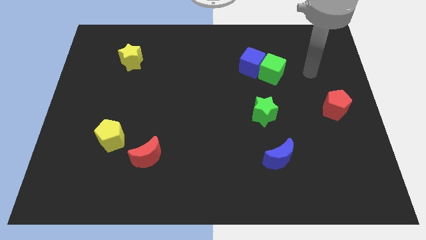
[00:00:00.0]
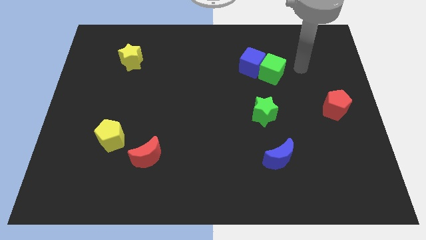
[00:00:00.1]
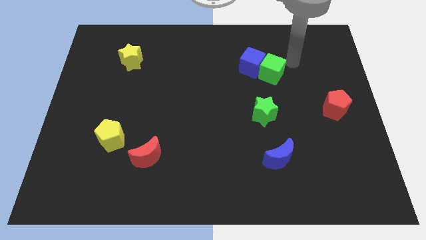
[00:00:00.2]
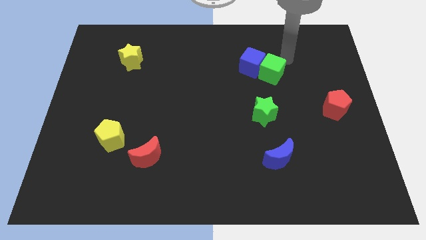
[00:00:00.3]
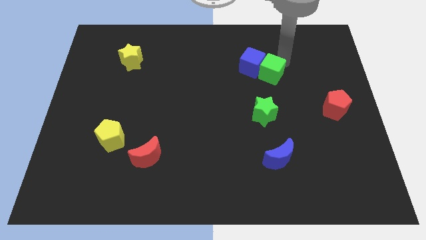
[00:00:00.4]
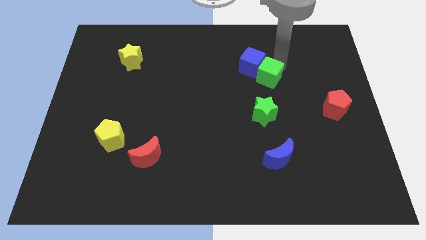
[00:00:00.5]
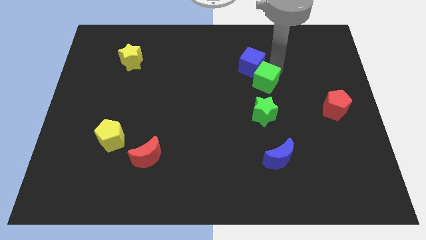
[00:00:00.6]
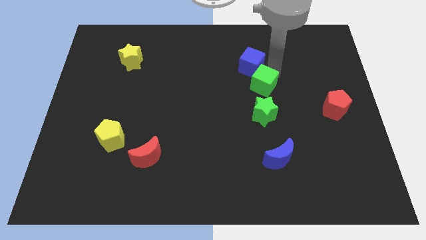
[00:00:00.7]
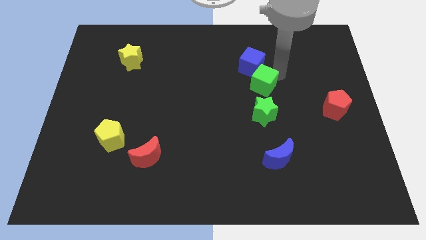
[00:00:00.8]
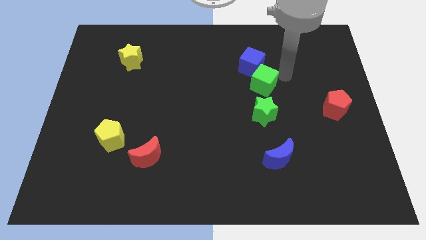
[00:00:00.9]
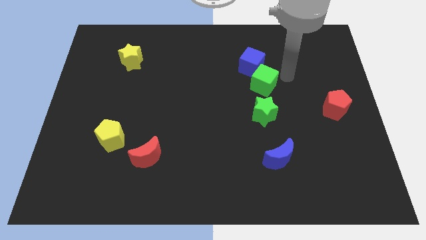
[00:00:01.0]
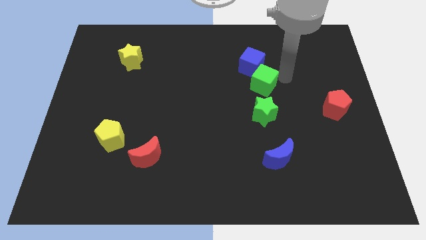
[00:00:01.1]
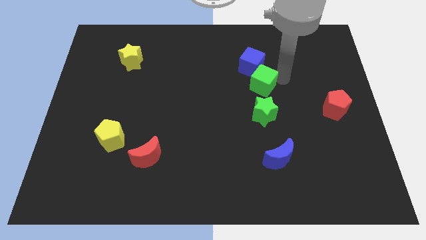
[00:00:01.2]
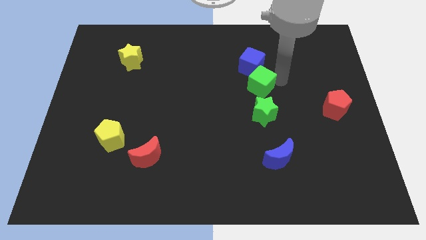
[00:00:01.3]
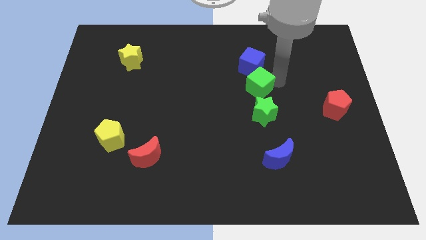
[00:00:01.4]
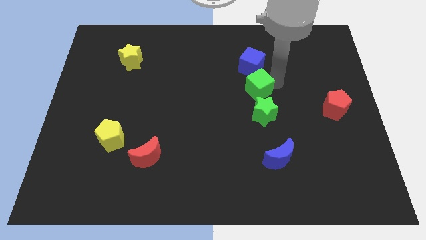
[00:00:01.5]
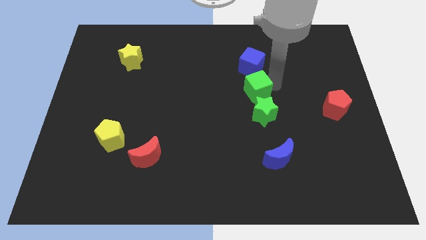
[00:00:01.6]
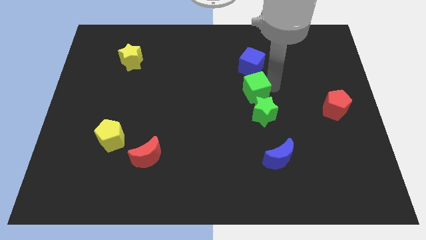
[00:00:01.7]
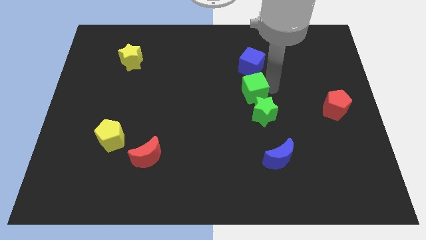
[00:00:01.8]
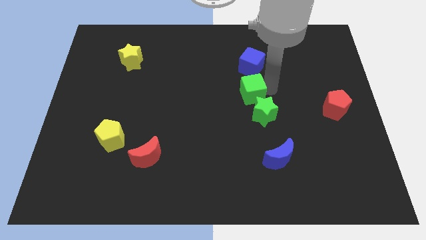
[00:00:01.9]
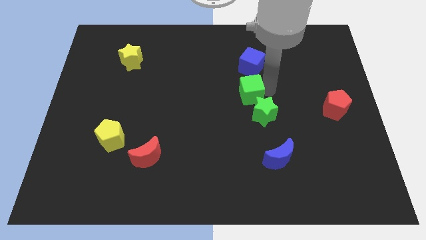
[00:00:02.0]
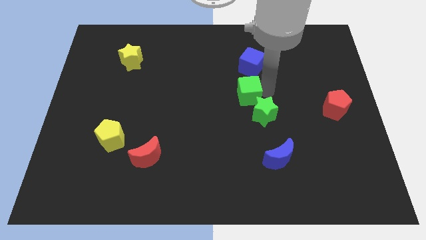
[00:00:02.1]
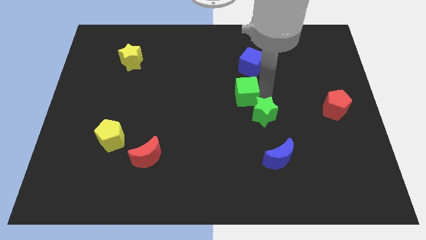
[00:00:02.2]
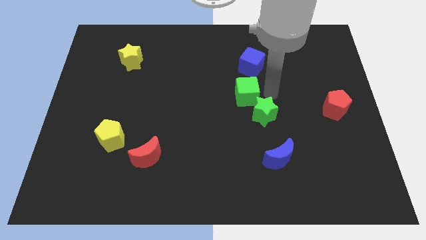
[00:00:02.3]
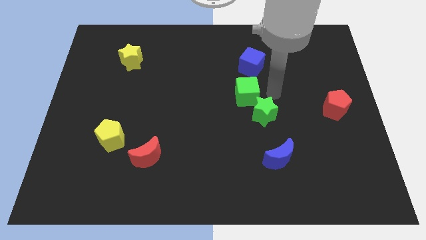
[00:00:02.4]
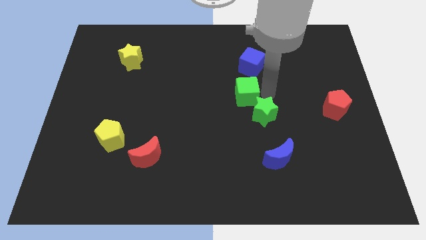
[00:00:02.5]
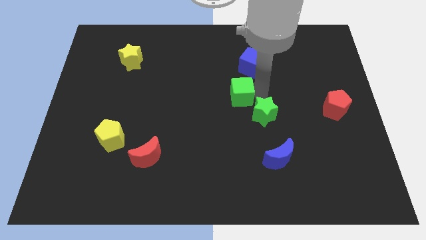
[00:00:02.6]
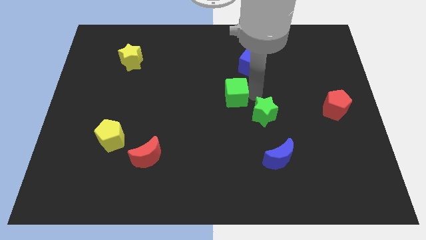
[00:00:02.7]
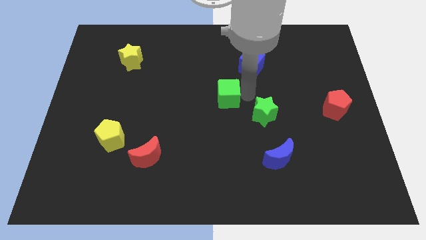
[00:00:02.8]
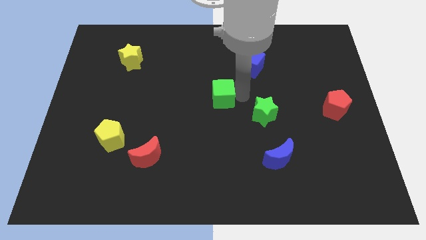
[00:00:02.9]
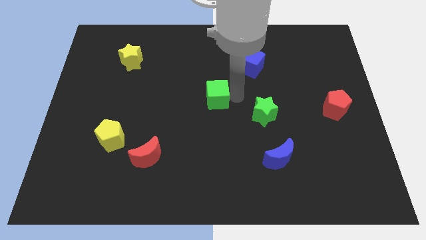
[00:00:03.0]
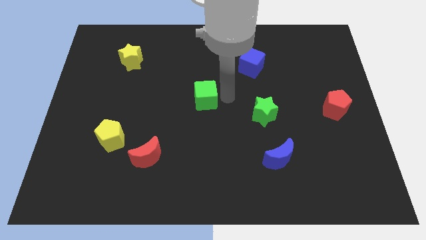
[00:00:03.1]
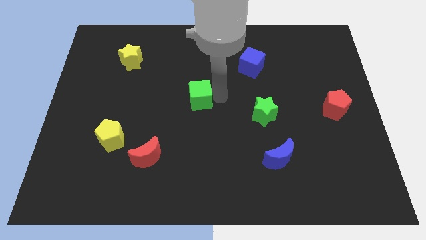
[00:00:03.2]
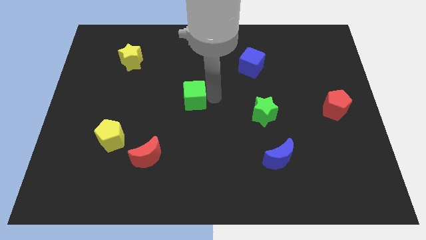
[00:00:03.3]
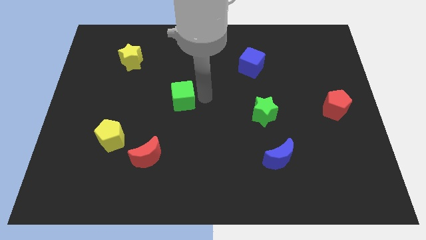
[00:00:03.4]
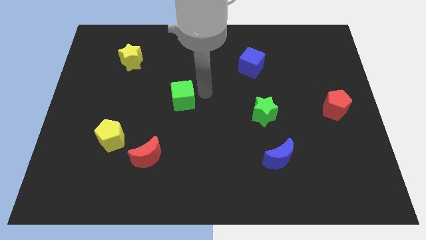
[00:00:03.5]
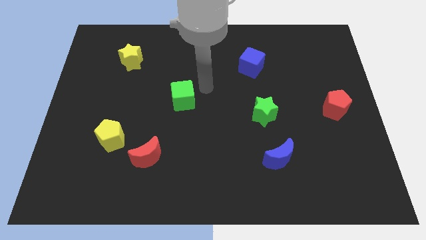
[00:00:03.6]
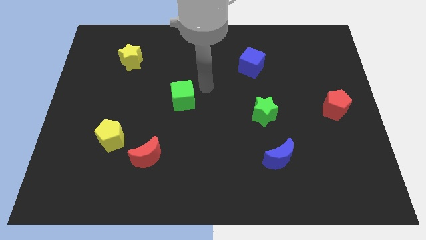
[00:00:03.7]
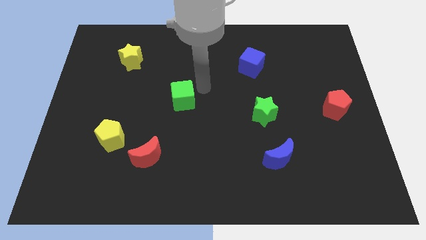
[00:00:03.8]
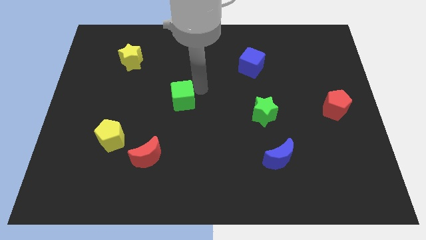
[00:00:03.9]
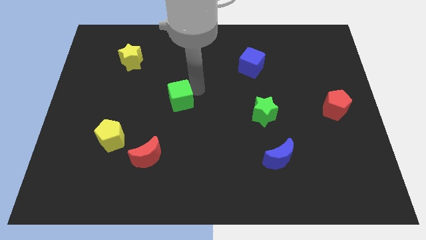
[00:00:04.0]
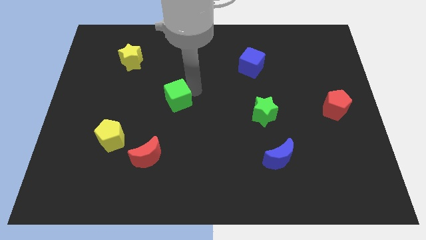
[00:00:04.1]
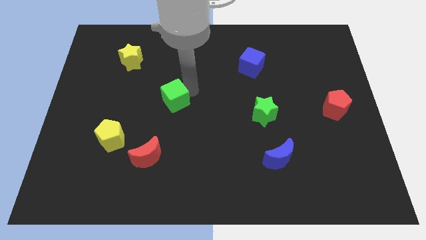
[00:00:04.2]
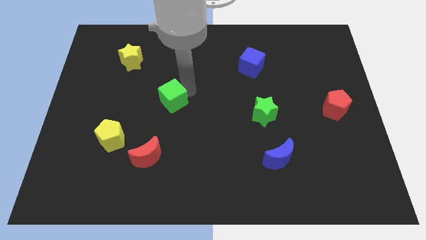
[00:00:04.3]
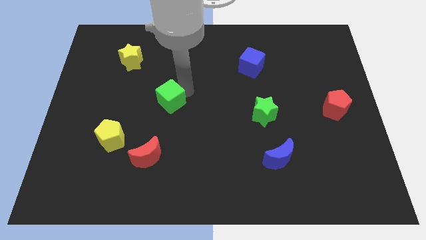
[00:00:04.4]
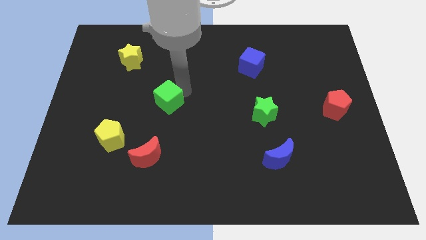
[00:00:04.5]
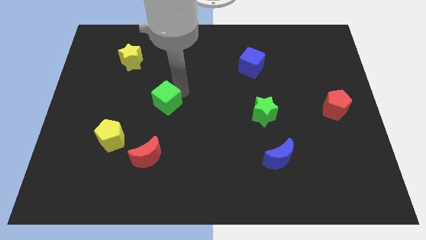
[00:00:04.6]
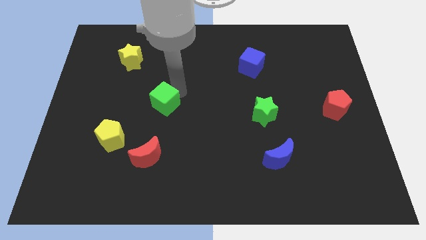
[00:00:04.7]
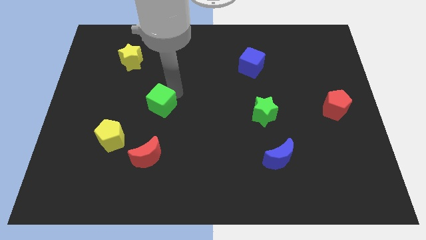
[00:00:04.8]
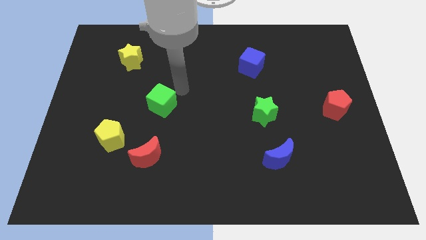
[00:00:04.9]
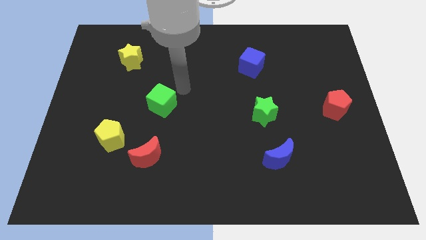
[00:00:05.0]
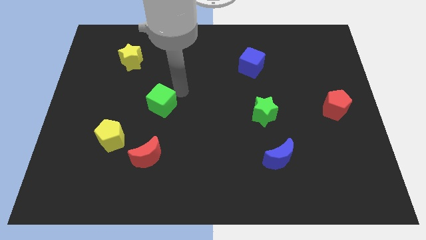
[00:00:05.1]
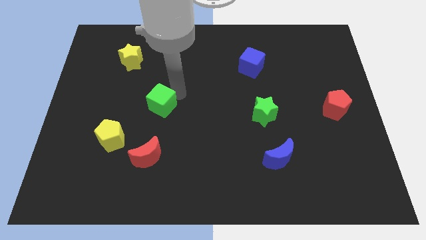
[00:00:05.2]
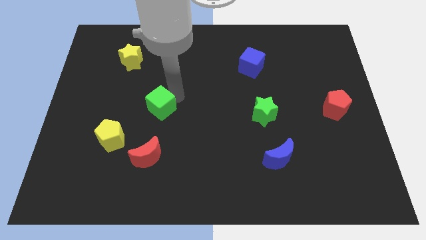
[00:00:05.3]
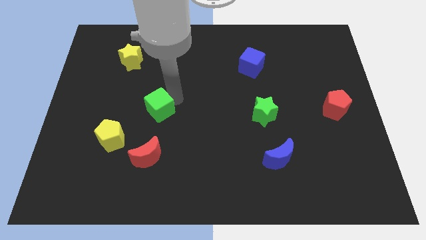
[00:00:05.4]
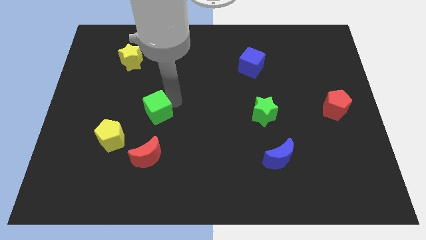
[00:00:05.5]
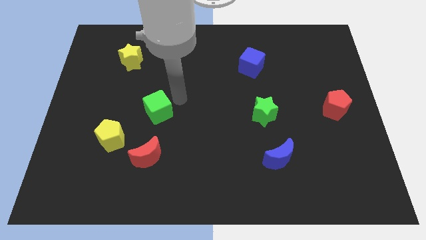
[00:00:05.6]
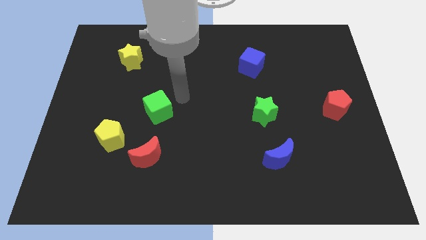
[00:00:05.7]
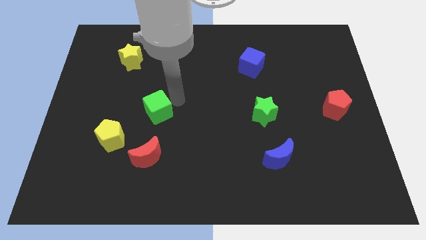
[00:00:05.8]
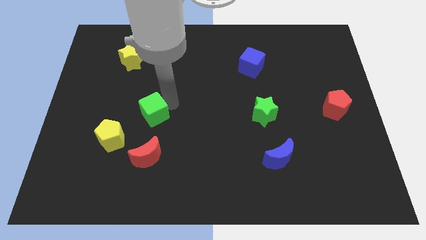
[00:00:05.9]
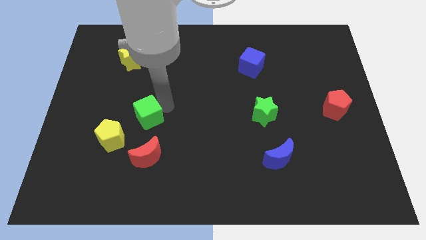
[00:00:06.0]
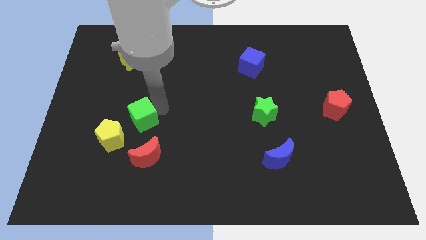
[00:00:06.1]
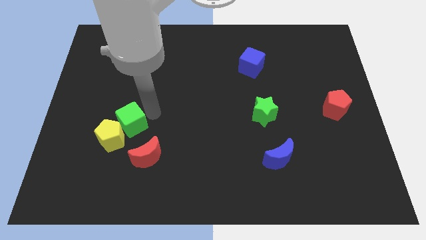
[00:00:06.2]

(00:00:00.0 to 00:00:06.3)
push the green cube towards the yellow pentagon

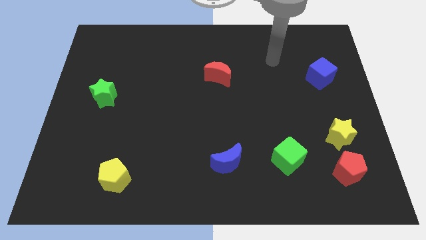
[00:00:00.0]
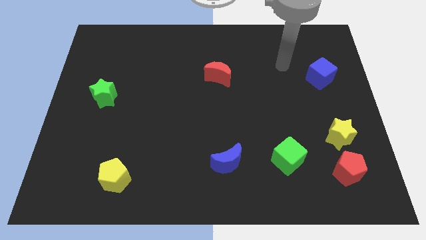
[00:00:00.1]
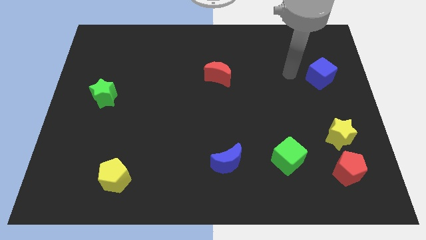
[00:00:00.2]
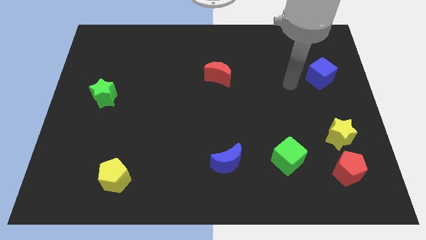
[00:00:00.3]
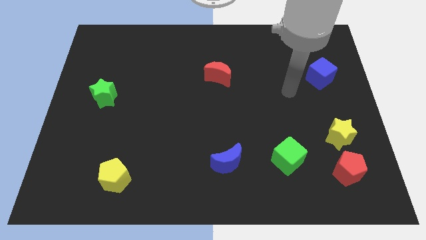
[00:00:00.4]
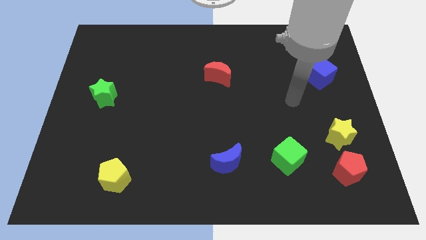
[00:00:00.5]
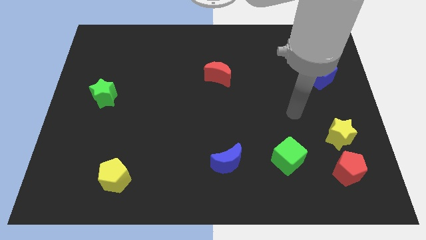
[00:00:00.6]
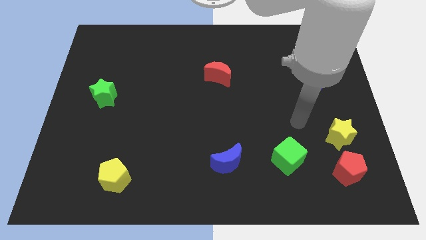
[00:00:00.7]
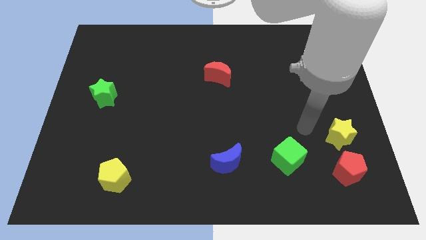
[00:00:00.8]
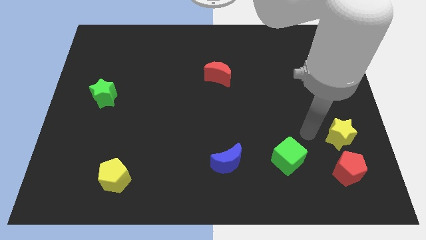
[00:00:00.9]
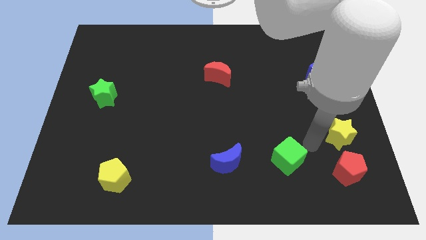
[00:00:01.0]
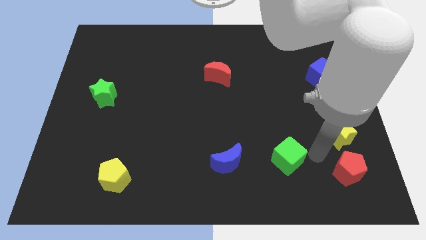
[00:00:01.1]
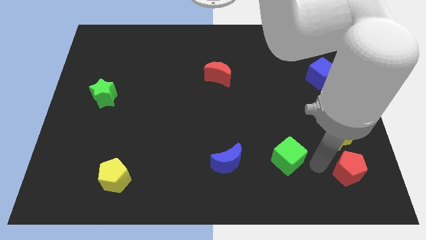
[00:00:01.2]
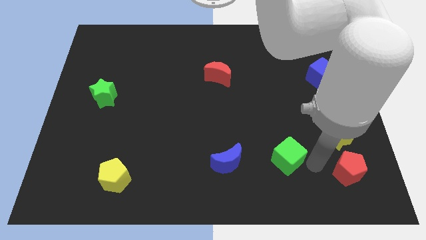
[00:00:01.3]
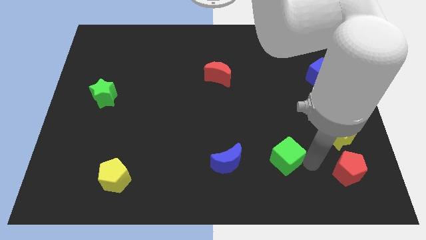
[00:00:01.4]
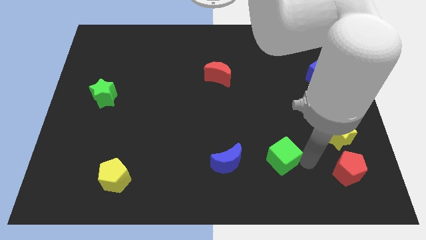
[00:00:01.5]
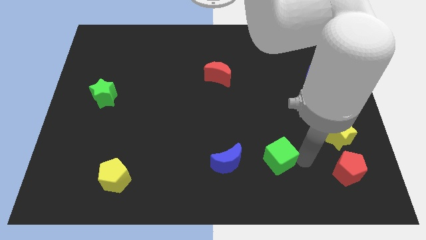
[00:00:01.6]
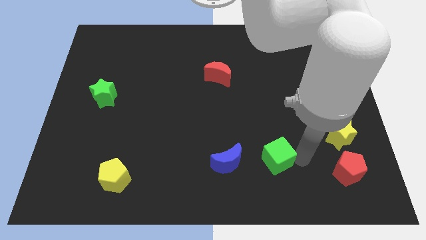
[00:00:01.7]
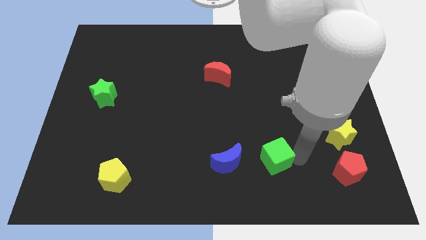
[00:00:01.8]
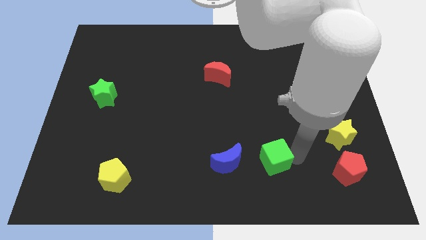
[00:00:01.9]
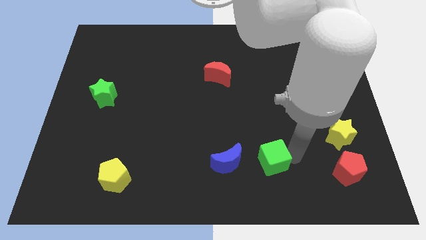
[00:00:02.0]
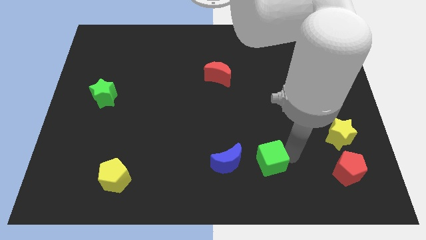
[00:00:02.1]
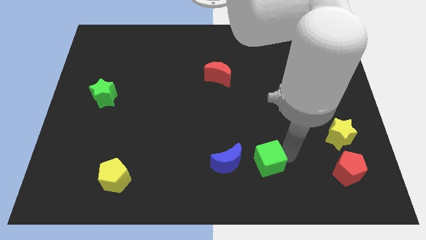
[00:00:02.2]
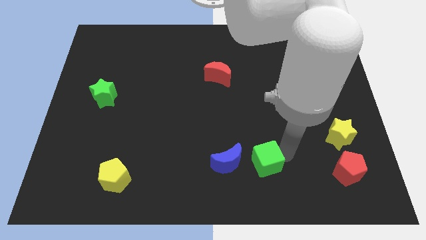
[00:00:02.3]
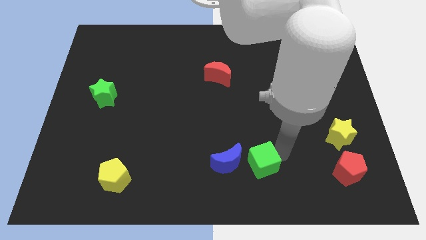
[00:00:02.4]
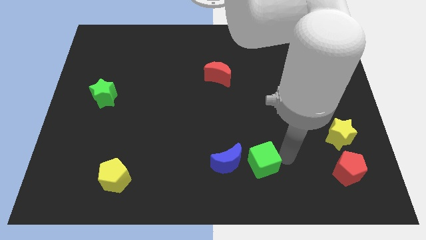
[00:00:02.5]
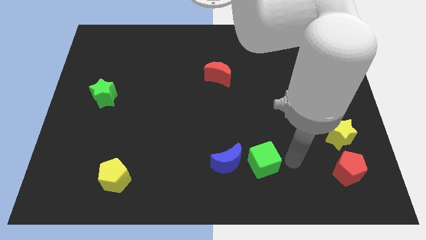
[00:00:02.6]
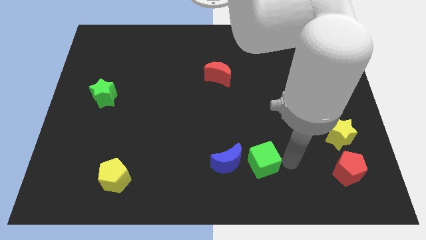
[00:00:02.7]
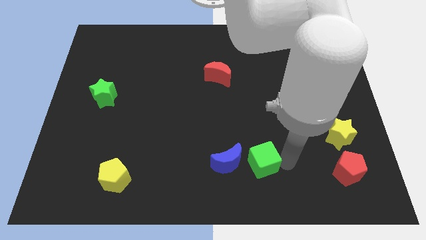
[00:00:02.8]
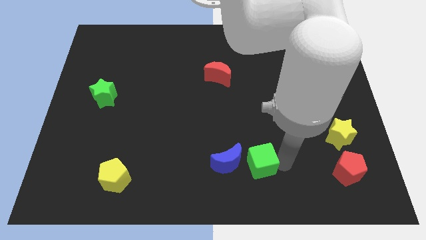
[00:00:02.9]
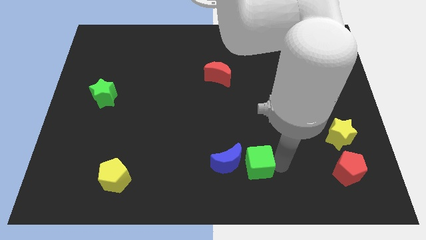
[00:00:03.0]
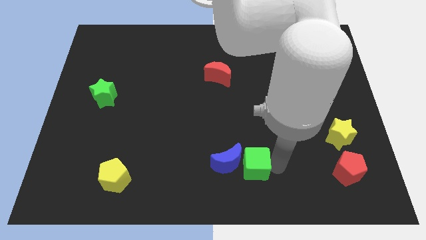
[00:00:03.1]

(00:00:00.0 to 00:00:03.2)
put the green cube next to the blue moon
